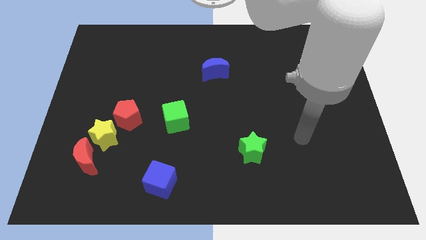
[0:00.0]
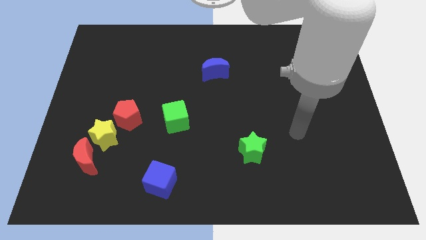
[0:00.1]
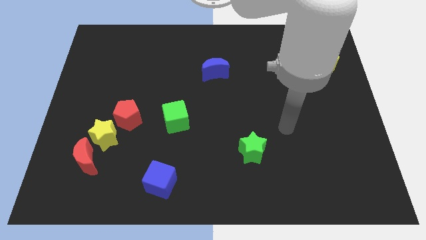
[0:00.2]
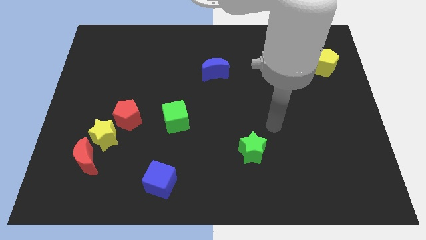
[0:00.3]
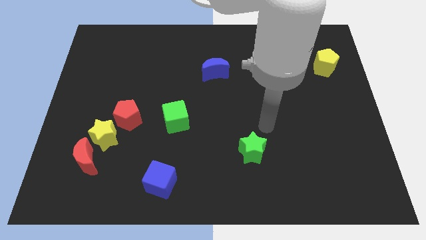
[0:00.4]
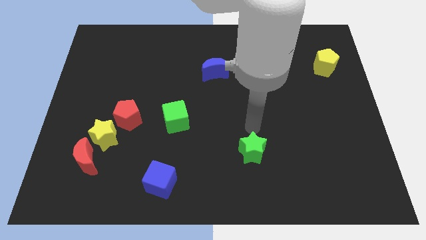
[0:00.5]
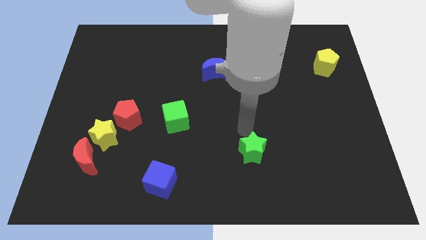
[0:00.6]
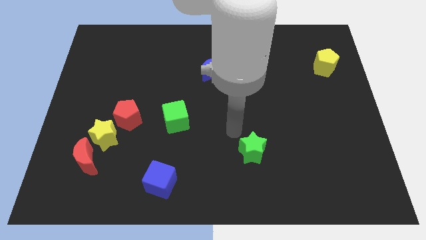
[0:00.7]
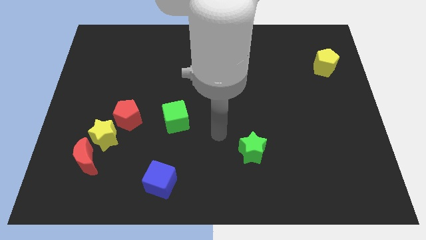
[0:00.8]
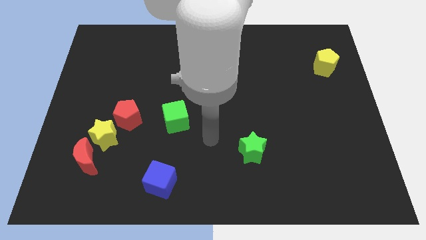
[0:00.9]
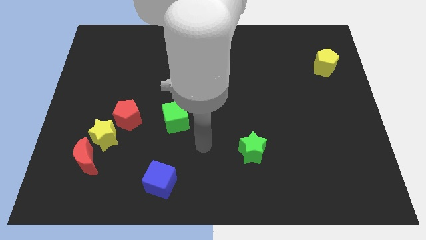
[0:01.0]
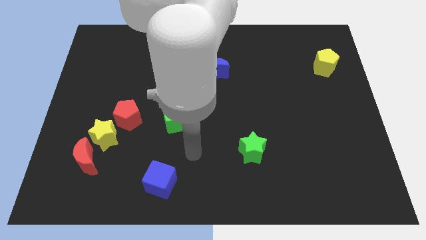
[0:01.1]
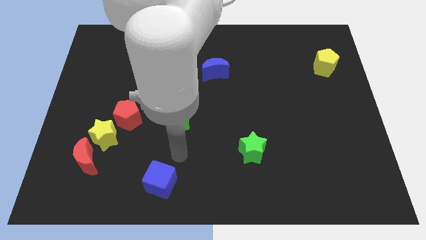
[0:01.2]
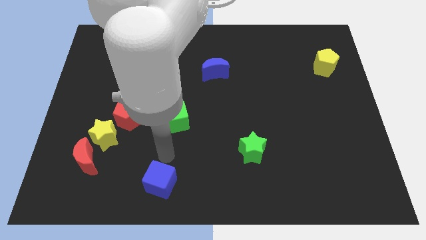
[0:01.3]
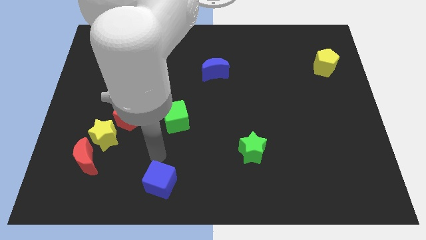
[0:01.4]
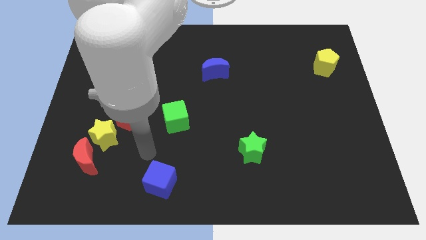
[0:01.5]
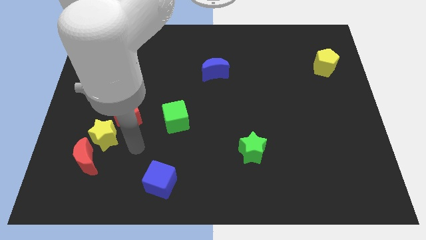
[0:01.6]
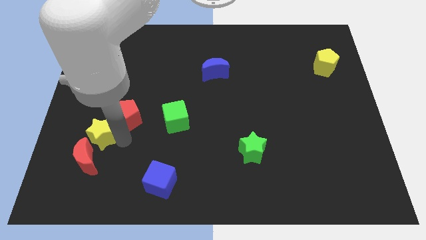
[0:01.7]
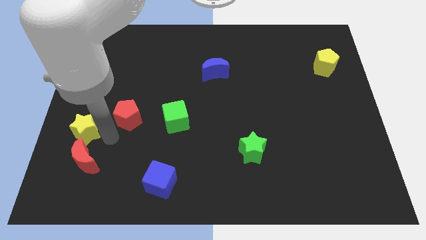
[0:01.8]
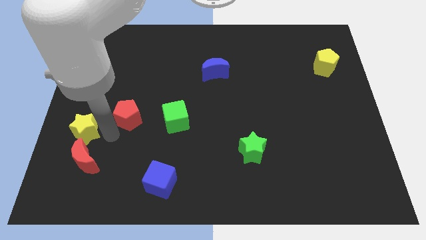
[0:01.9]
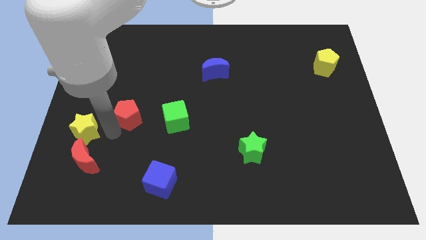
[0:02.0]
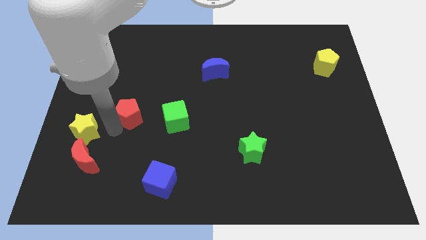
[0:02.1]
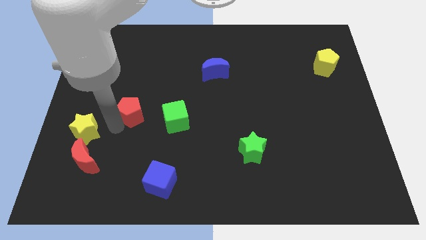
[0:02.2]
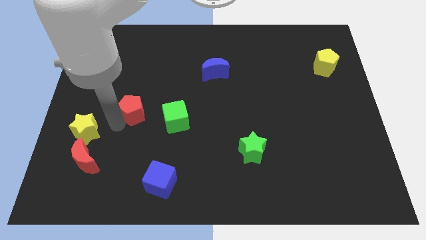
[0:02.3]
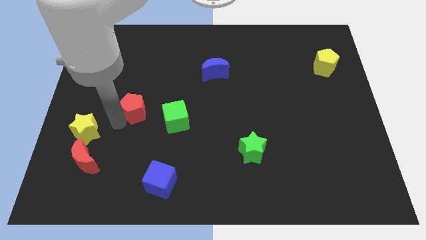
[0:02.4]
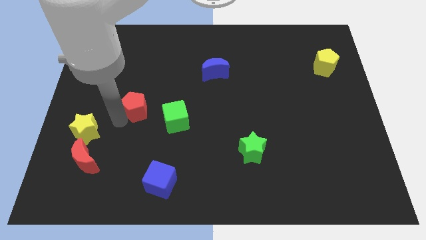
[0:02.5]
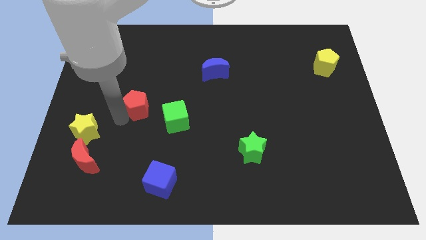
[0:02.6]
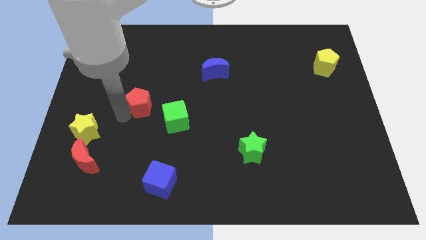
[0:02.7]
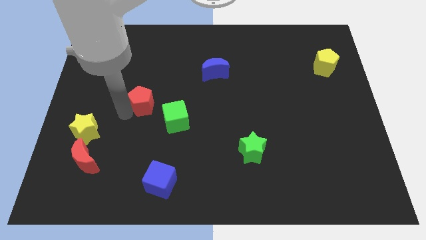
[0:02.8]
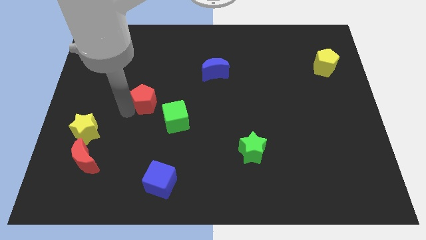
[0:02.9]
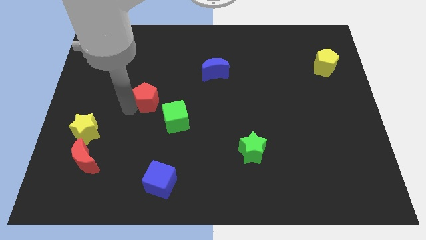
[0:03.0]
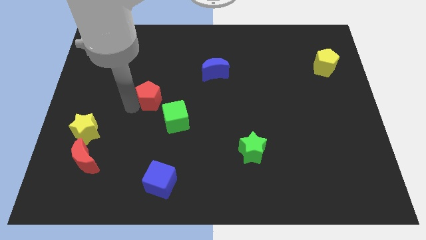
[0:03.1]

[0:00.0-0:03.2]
push the red pentagon a bit diagonally up and right

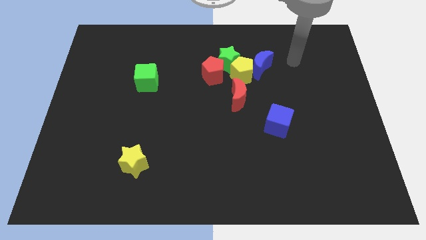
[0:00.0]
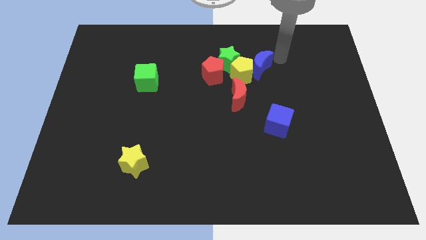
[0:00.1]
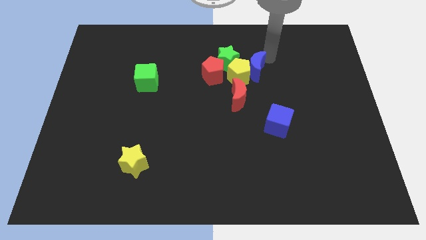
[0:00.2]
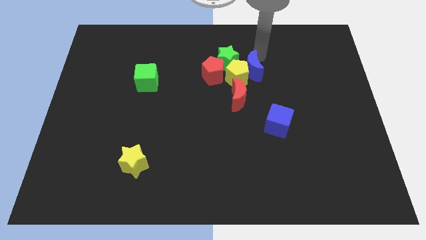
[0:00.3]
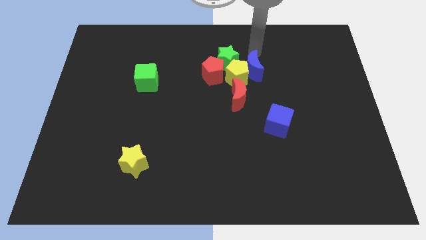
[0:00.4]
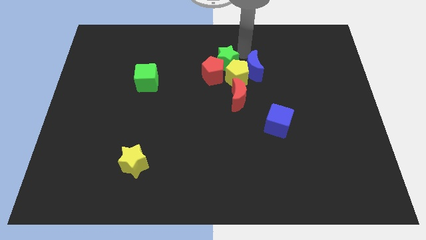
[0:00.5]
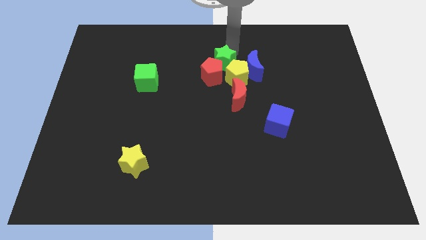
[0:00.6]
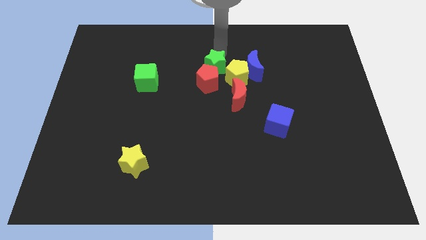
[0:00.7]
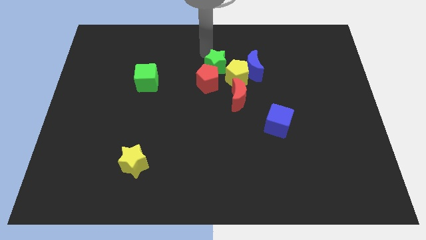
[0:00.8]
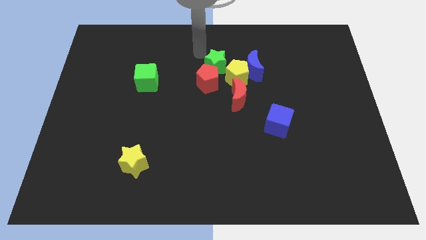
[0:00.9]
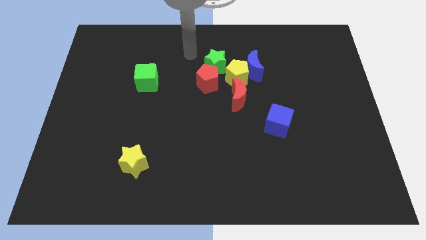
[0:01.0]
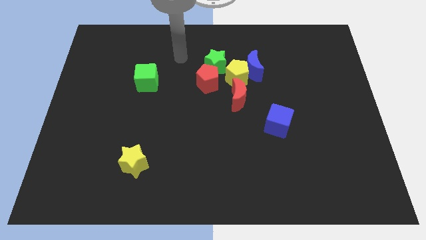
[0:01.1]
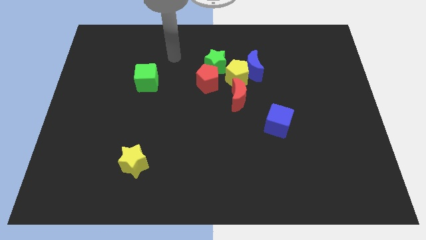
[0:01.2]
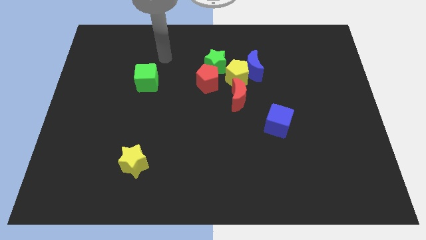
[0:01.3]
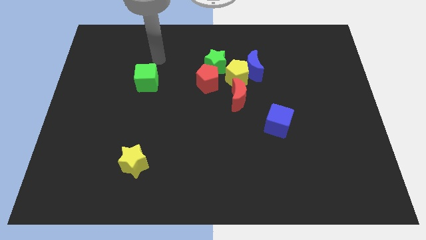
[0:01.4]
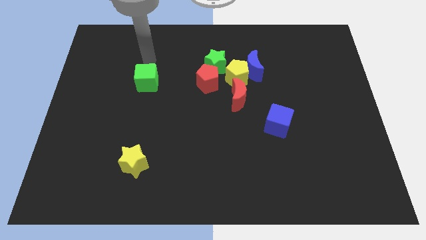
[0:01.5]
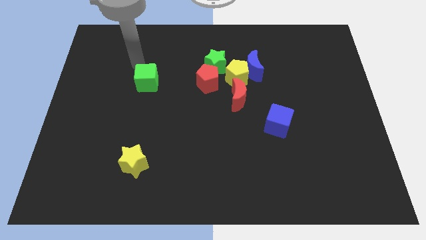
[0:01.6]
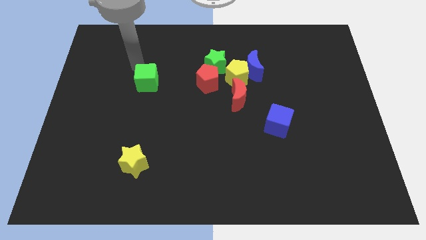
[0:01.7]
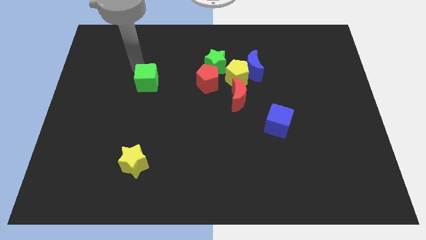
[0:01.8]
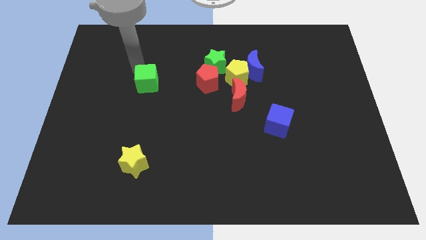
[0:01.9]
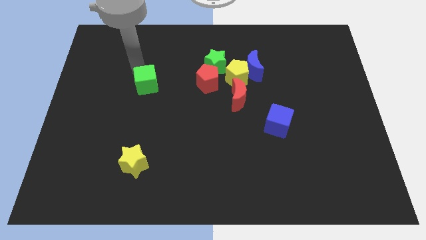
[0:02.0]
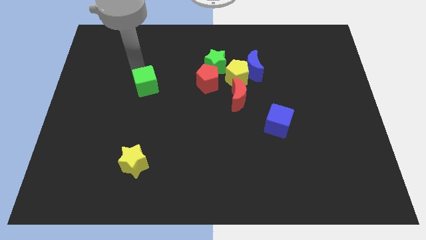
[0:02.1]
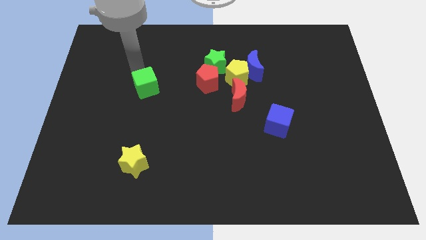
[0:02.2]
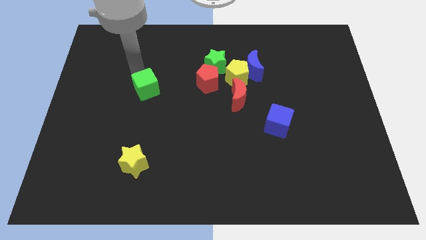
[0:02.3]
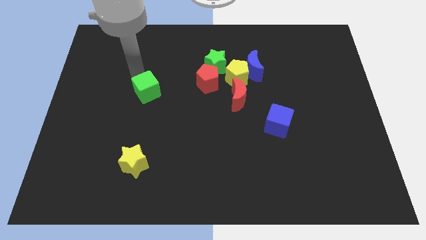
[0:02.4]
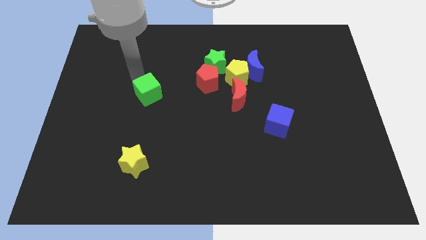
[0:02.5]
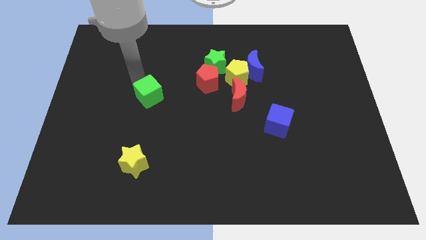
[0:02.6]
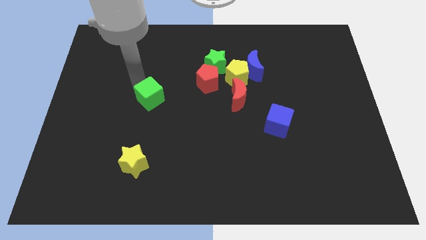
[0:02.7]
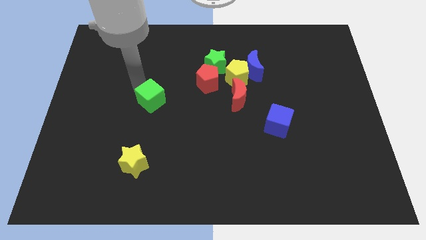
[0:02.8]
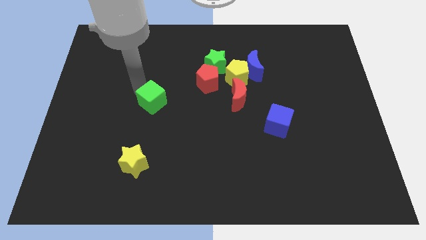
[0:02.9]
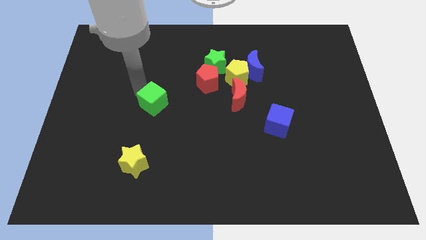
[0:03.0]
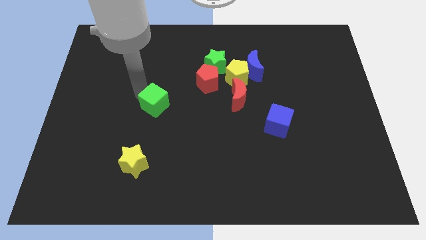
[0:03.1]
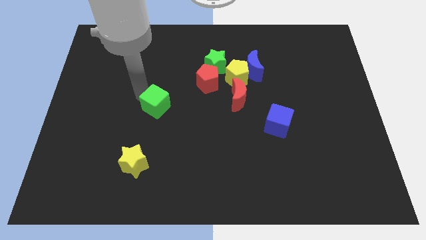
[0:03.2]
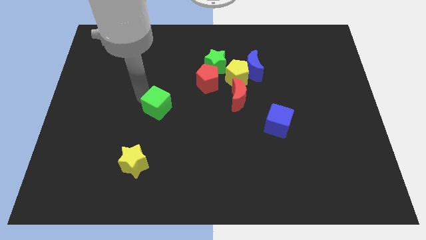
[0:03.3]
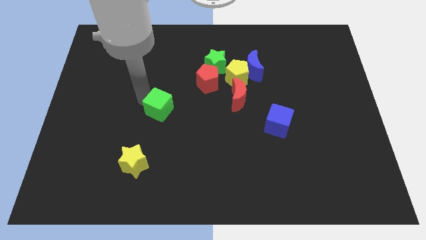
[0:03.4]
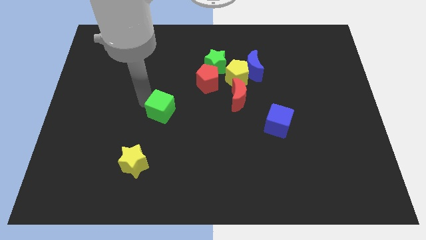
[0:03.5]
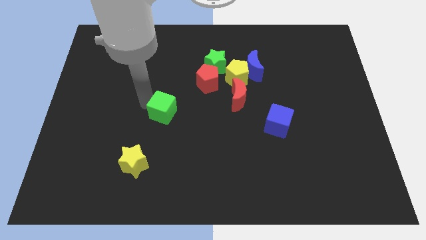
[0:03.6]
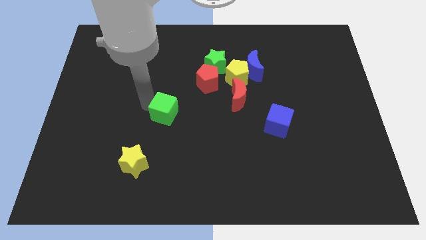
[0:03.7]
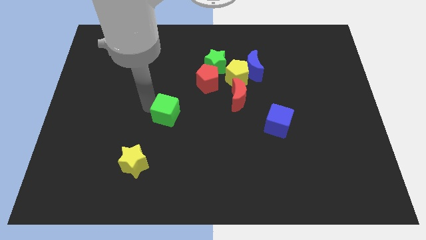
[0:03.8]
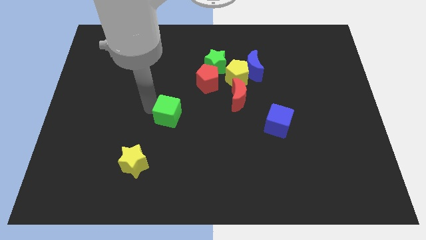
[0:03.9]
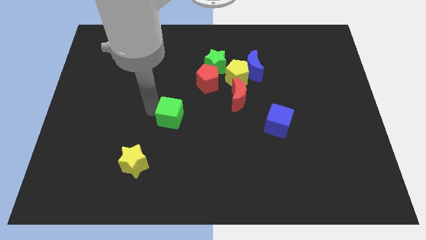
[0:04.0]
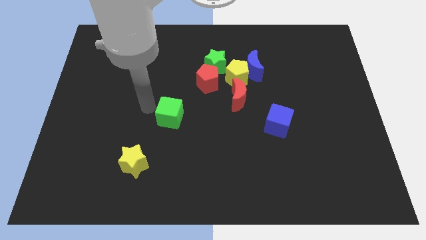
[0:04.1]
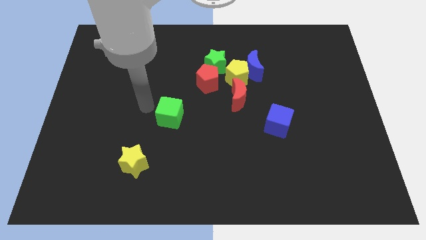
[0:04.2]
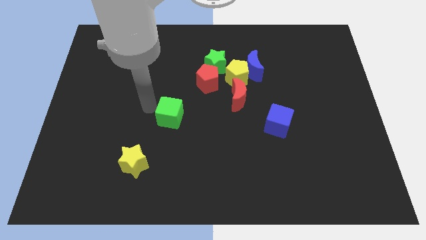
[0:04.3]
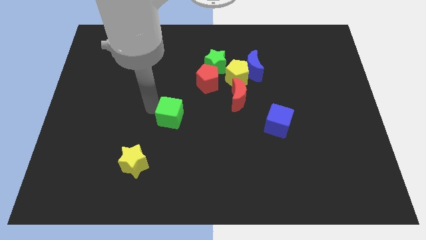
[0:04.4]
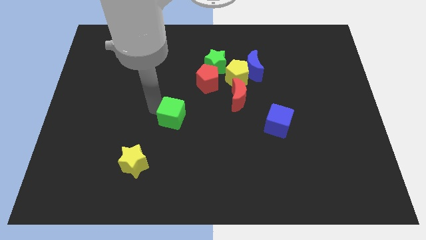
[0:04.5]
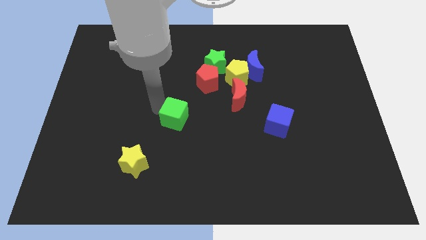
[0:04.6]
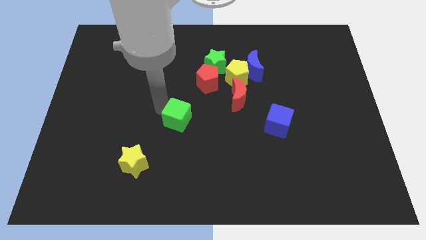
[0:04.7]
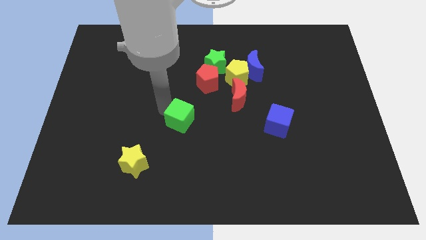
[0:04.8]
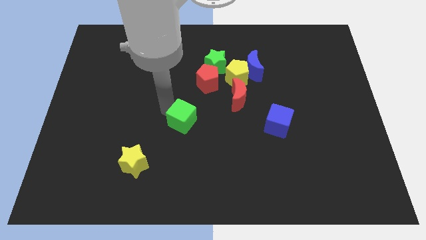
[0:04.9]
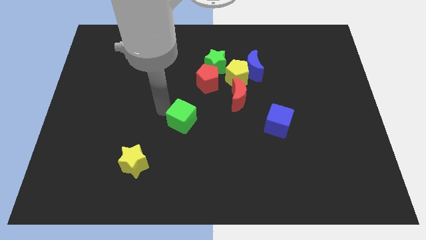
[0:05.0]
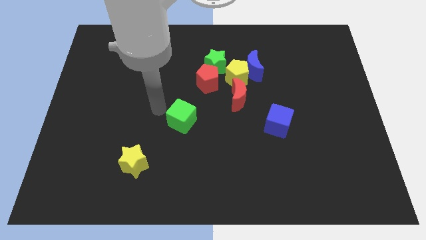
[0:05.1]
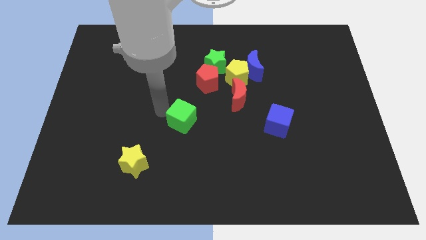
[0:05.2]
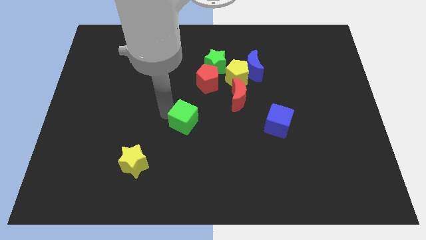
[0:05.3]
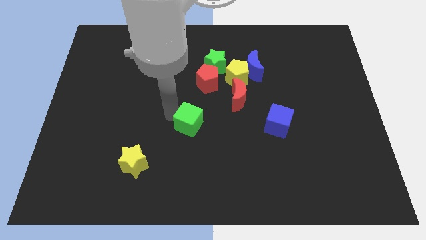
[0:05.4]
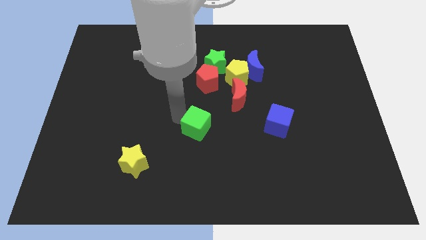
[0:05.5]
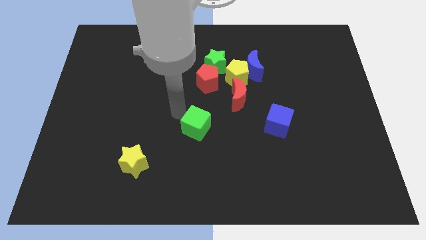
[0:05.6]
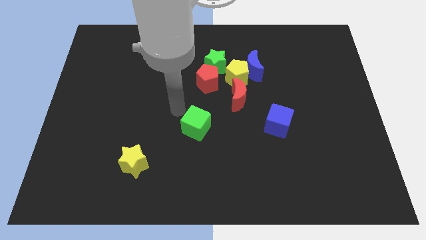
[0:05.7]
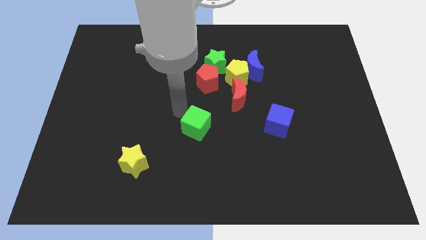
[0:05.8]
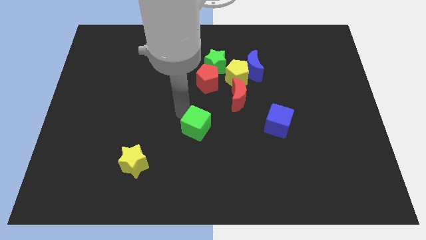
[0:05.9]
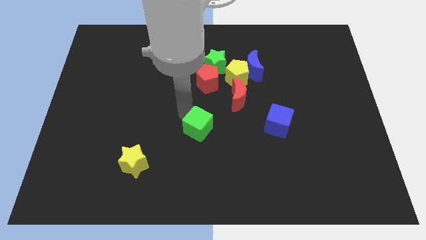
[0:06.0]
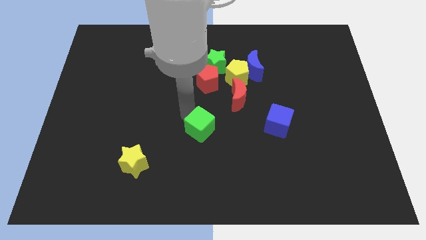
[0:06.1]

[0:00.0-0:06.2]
move the green cube downwards and then right
